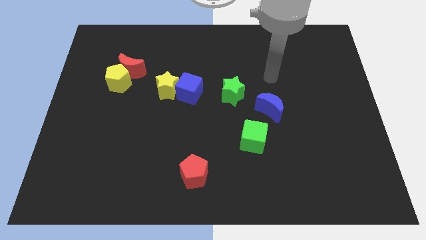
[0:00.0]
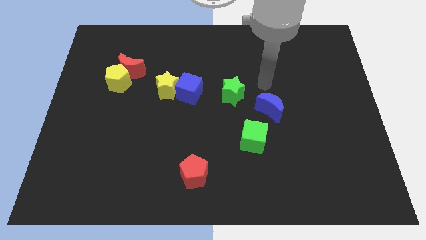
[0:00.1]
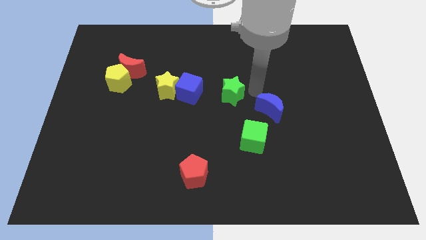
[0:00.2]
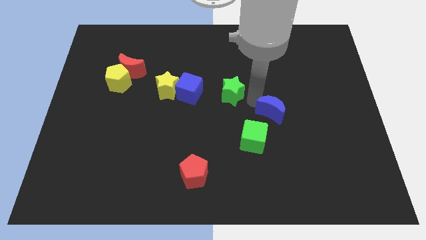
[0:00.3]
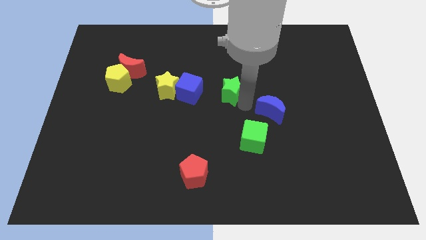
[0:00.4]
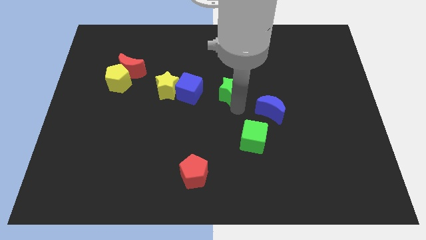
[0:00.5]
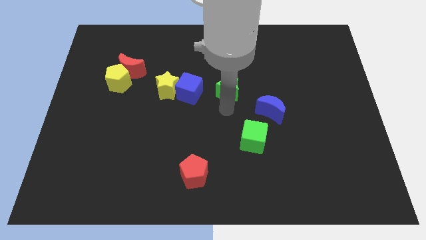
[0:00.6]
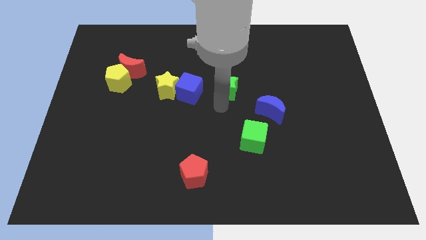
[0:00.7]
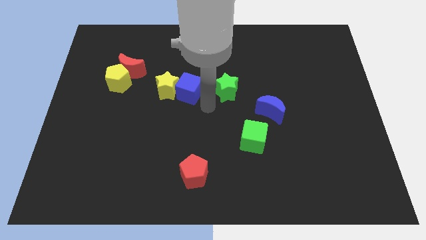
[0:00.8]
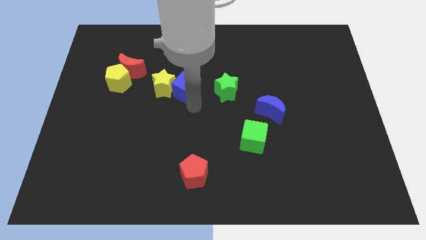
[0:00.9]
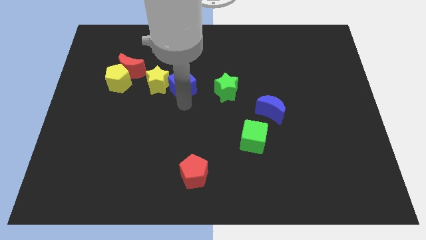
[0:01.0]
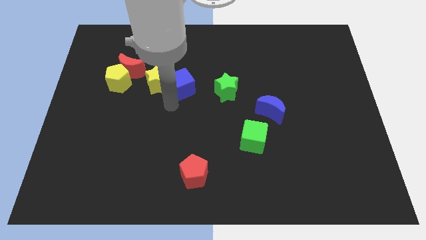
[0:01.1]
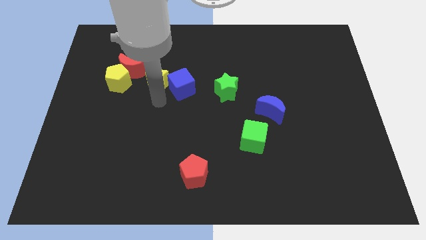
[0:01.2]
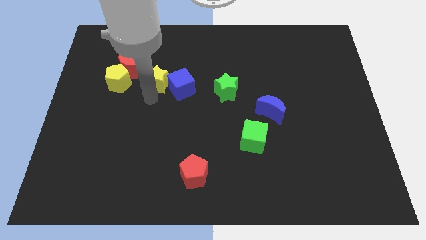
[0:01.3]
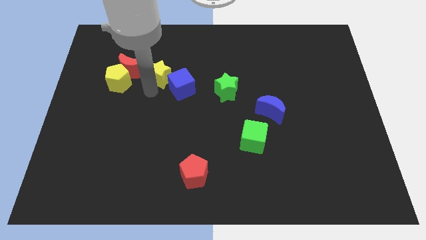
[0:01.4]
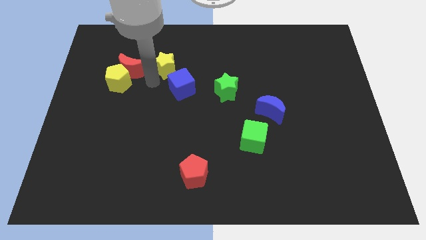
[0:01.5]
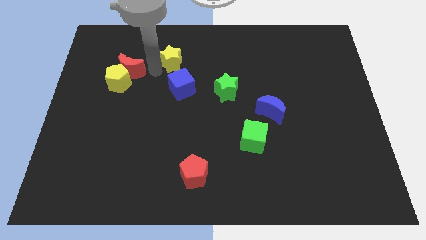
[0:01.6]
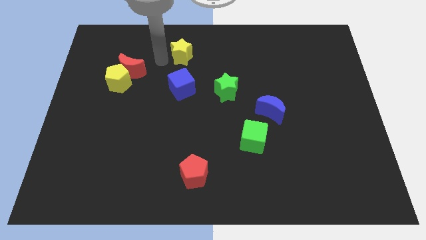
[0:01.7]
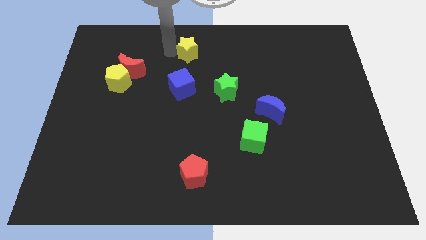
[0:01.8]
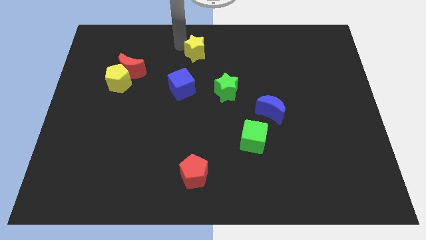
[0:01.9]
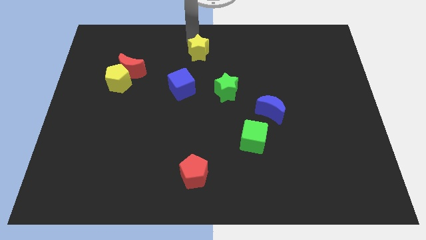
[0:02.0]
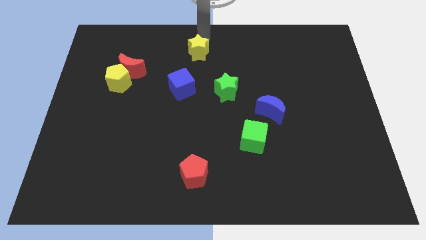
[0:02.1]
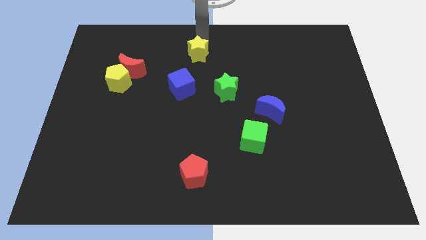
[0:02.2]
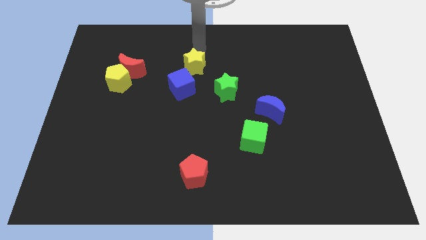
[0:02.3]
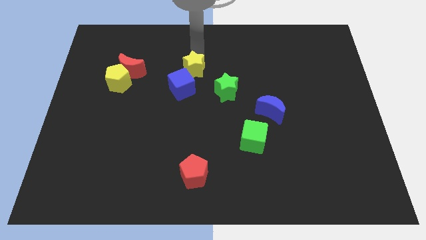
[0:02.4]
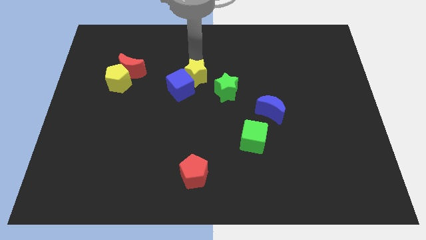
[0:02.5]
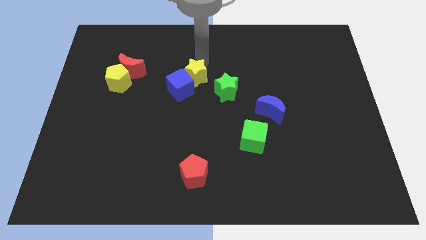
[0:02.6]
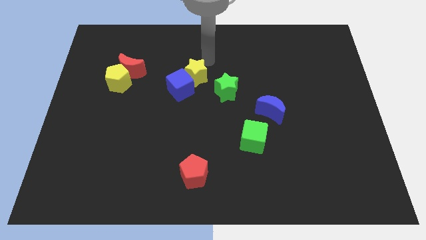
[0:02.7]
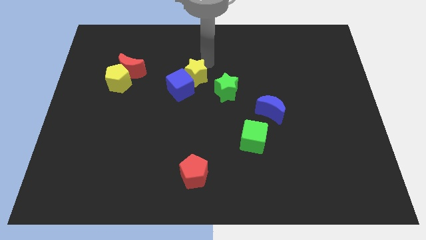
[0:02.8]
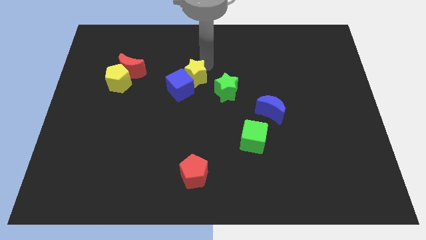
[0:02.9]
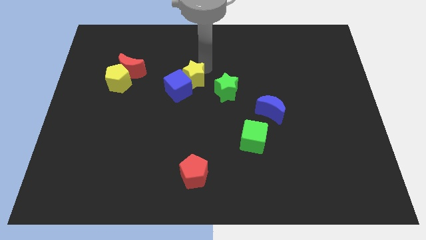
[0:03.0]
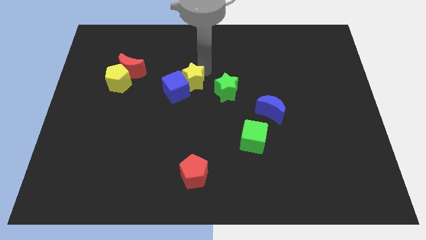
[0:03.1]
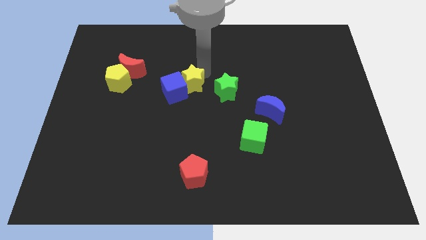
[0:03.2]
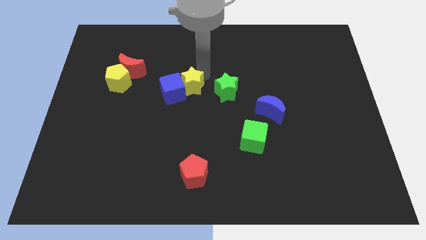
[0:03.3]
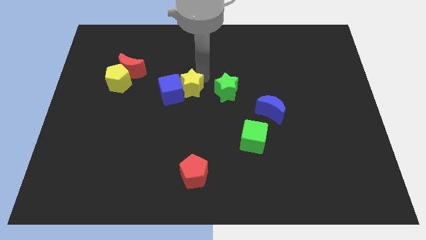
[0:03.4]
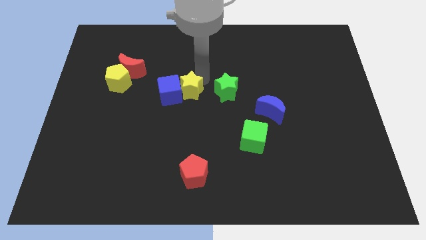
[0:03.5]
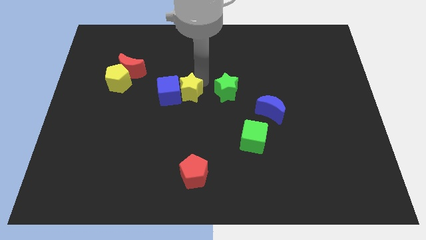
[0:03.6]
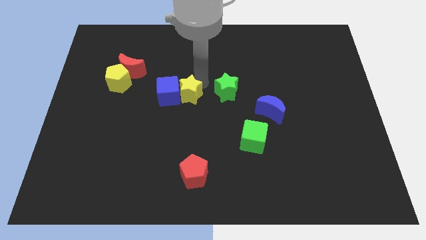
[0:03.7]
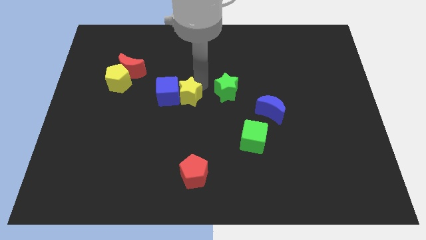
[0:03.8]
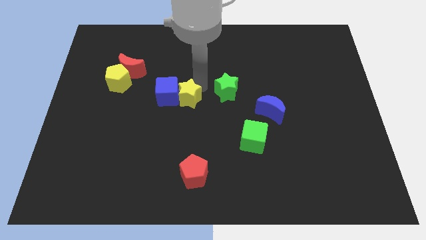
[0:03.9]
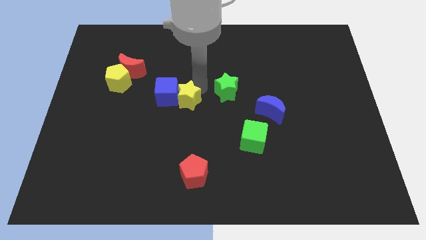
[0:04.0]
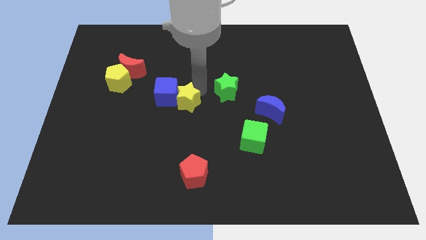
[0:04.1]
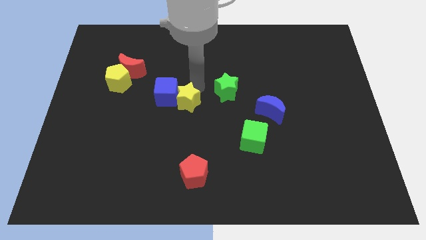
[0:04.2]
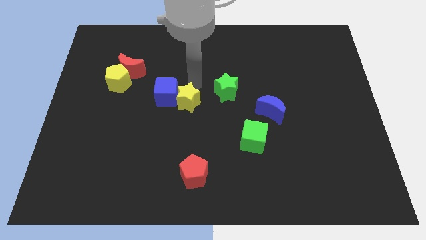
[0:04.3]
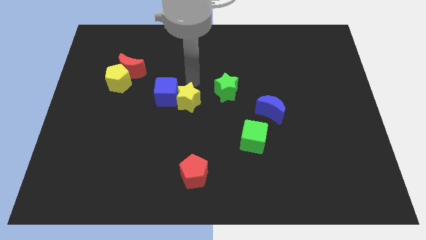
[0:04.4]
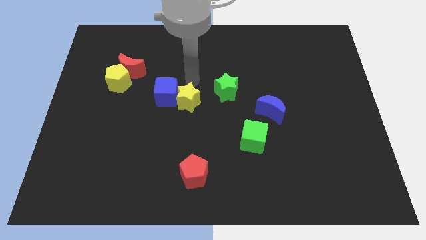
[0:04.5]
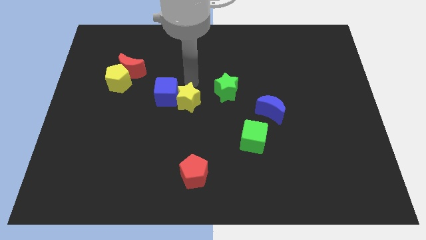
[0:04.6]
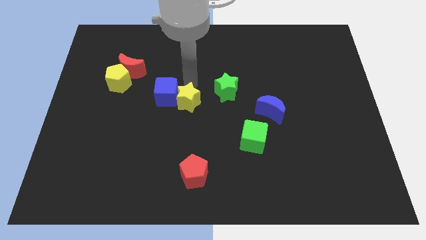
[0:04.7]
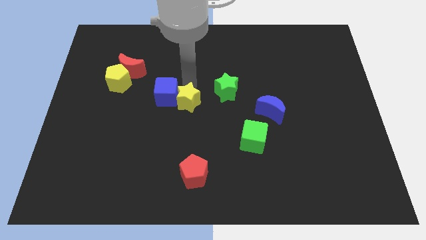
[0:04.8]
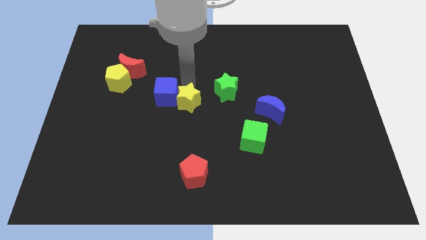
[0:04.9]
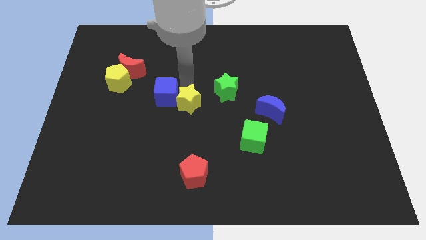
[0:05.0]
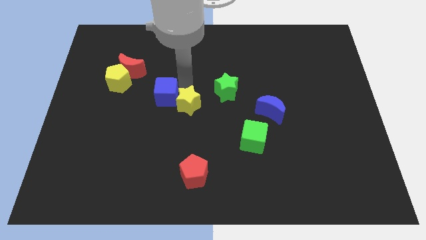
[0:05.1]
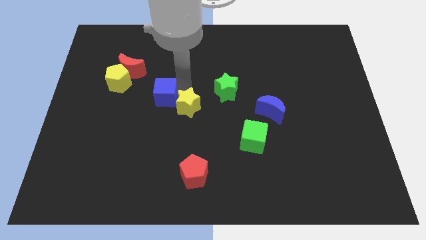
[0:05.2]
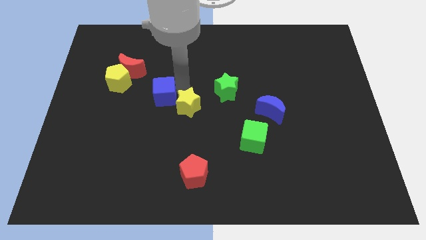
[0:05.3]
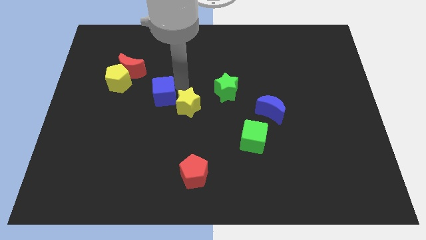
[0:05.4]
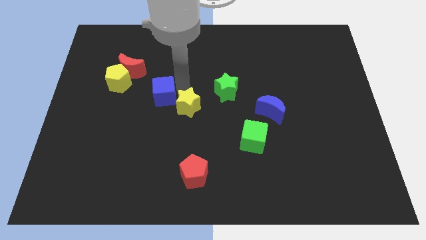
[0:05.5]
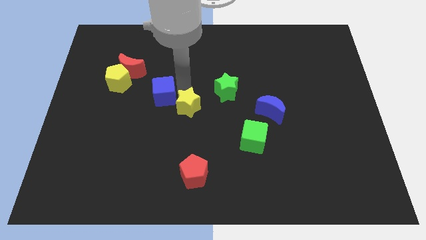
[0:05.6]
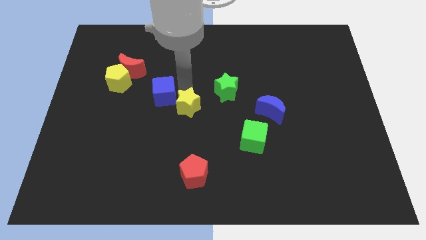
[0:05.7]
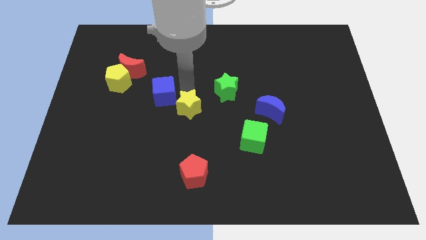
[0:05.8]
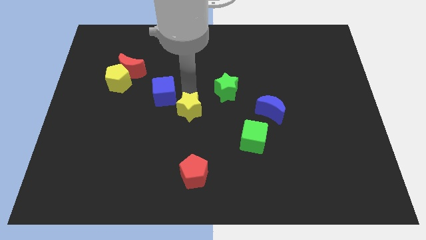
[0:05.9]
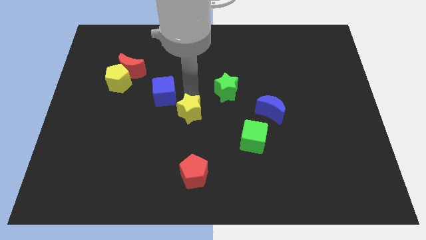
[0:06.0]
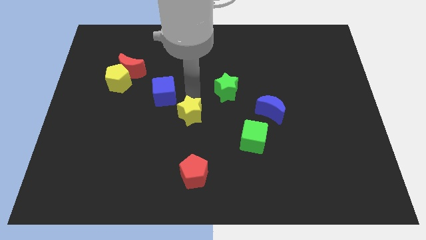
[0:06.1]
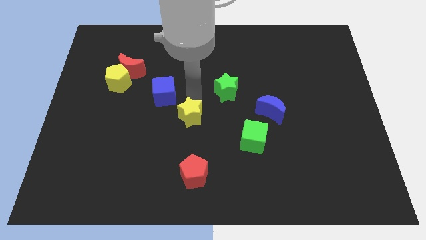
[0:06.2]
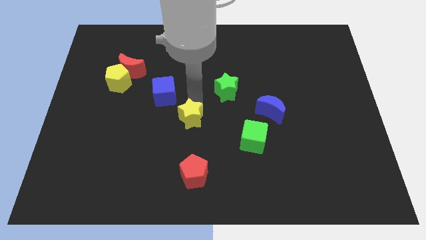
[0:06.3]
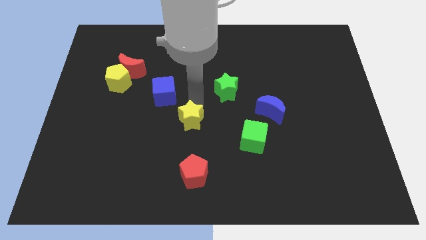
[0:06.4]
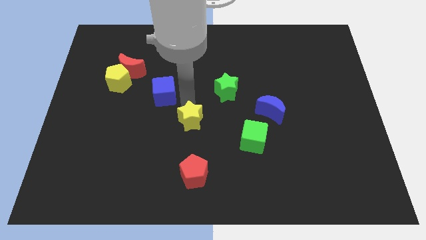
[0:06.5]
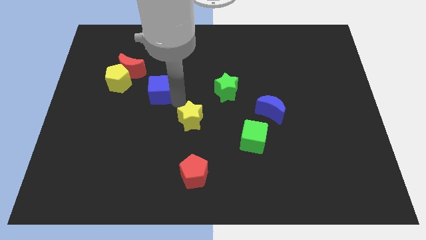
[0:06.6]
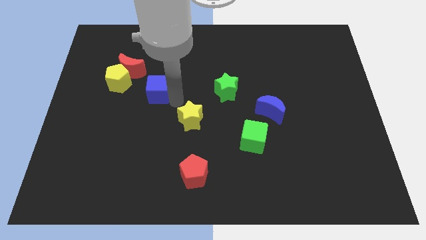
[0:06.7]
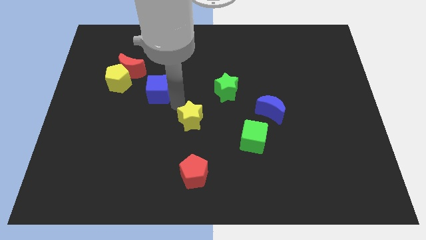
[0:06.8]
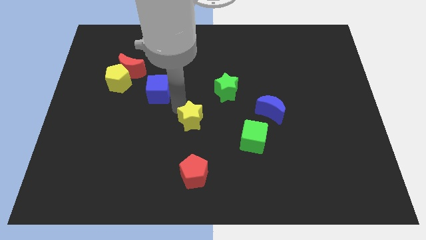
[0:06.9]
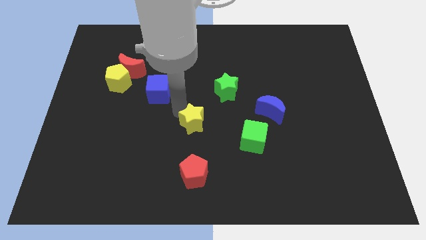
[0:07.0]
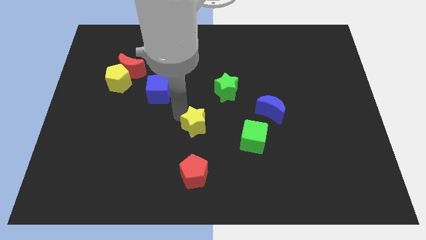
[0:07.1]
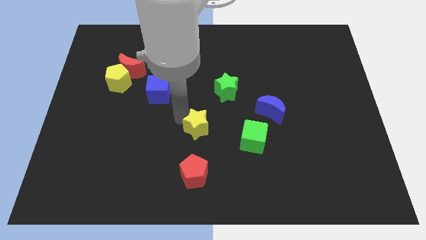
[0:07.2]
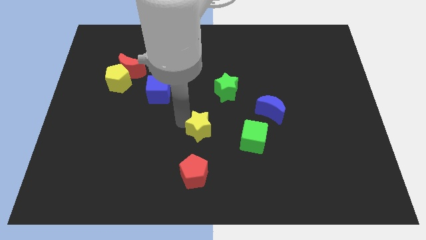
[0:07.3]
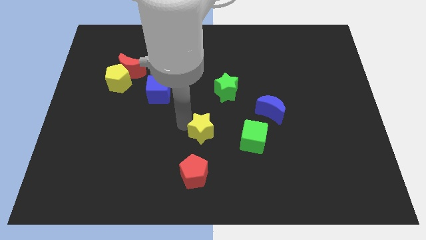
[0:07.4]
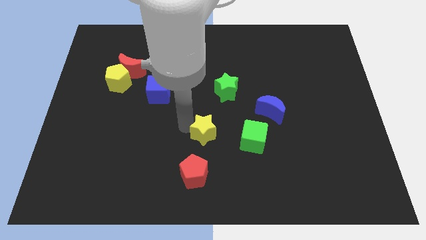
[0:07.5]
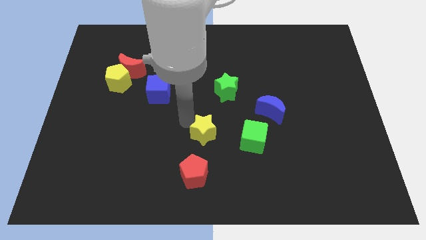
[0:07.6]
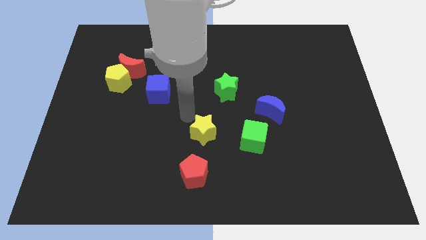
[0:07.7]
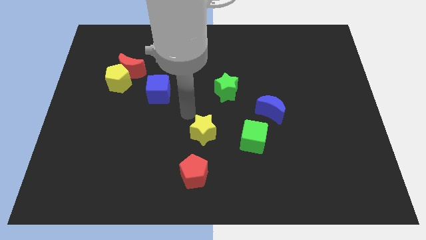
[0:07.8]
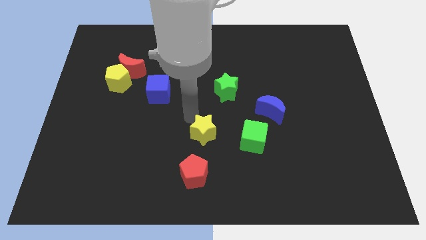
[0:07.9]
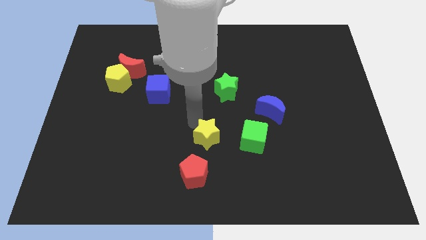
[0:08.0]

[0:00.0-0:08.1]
push the yellow star to the top right side of the red pentagon
